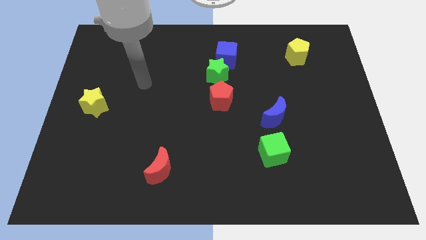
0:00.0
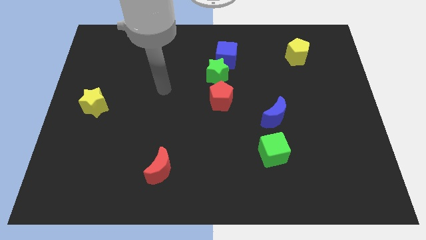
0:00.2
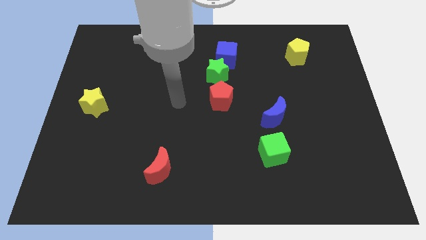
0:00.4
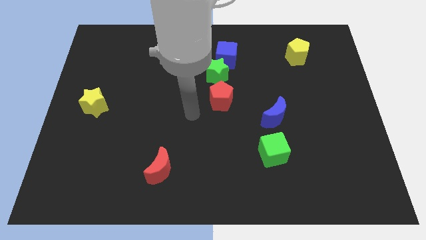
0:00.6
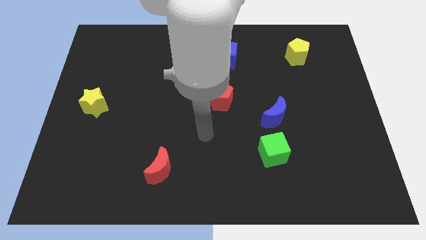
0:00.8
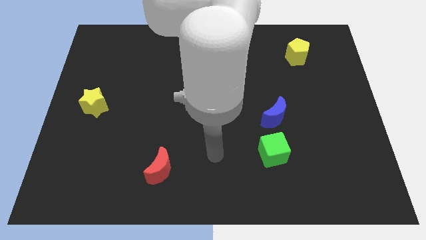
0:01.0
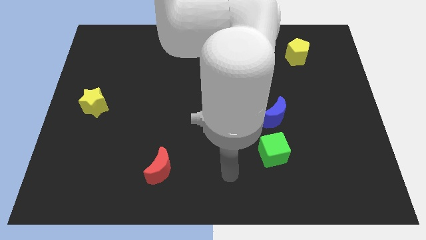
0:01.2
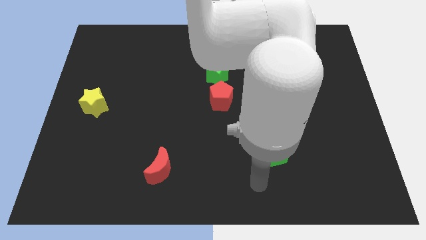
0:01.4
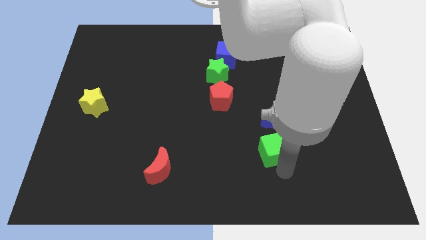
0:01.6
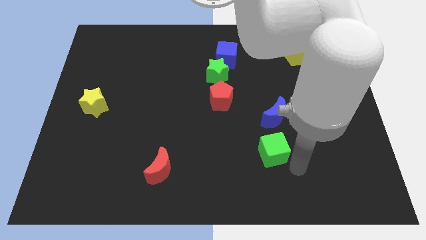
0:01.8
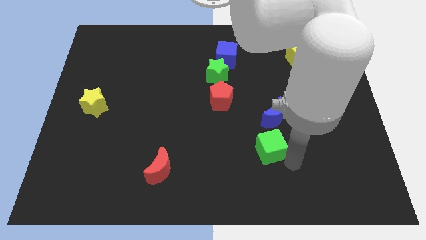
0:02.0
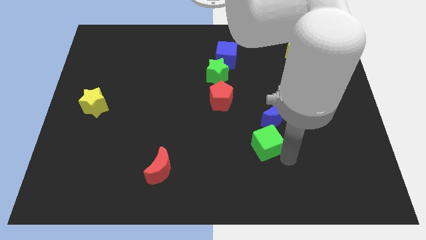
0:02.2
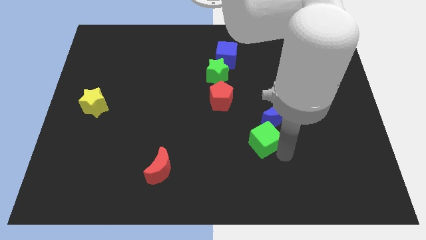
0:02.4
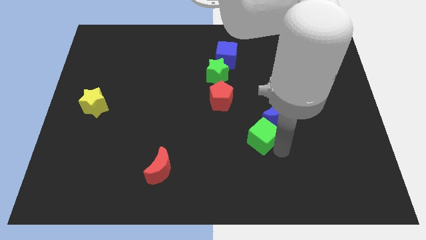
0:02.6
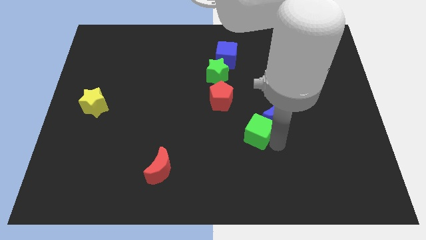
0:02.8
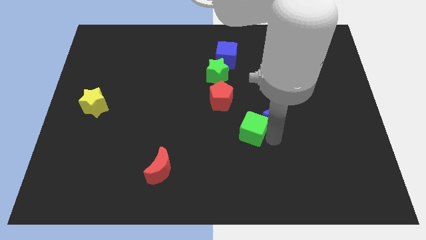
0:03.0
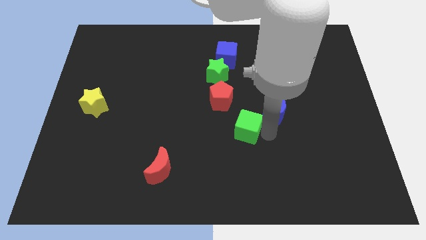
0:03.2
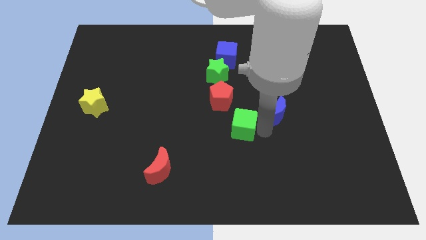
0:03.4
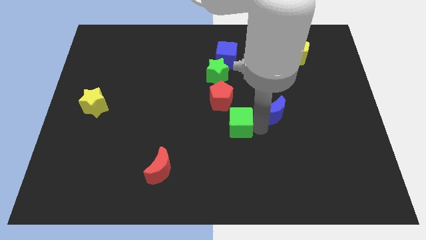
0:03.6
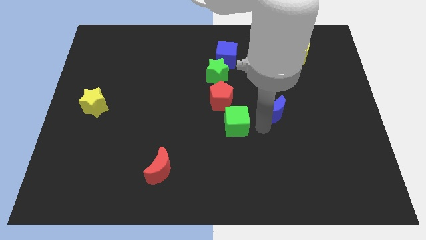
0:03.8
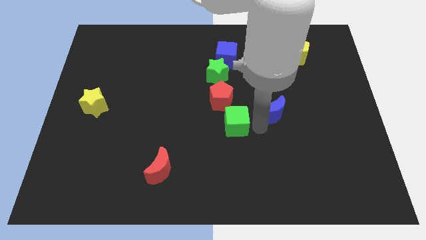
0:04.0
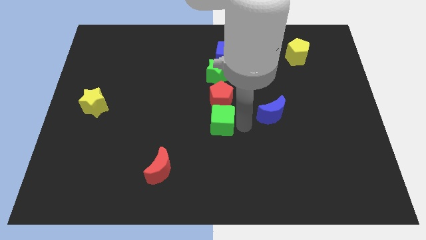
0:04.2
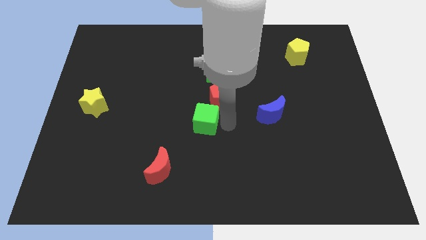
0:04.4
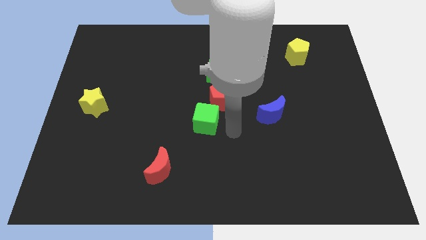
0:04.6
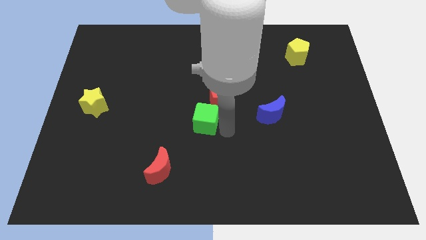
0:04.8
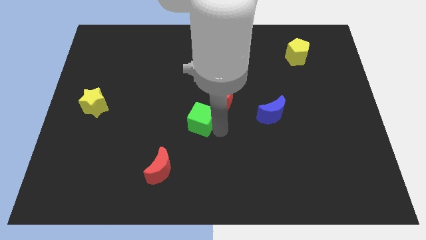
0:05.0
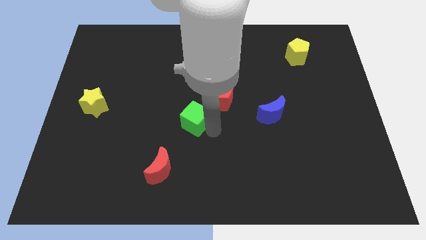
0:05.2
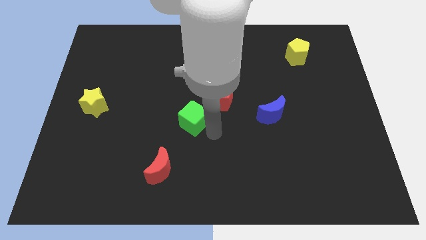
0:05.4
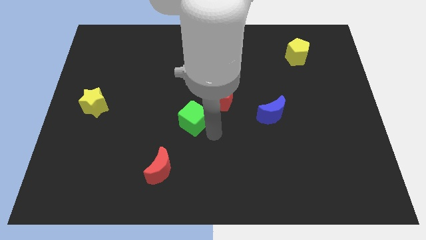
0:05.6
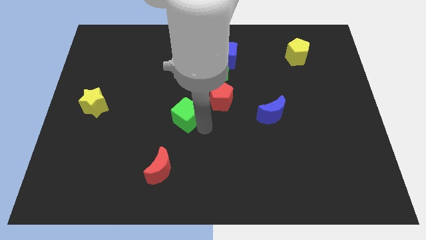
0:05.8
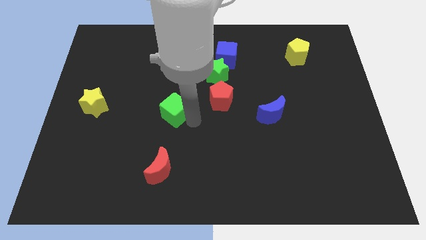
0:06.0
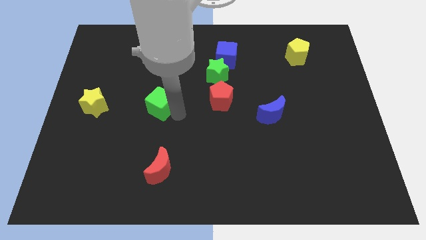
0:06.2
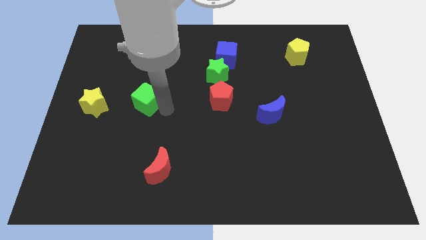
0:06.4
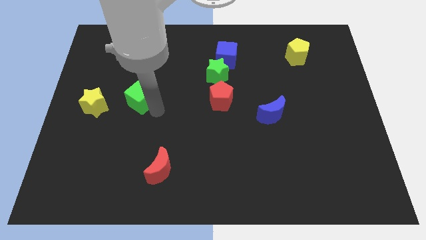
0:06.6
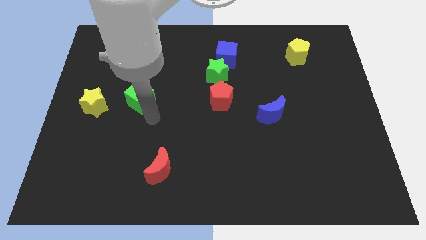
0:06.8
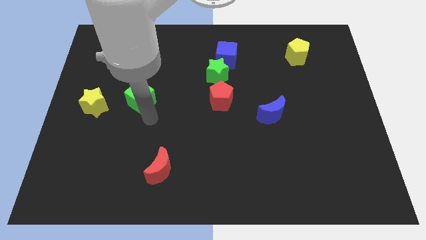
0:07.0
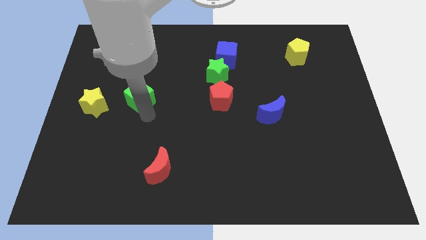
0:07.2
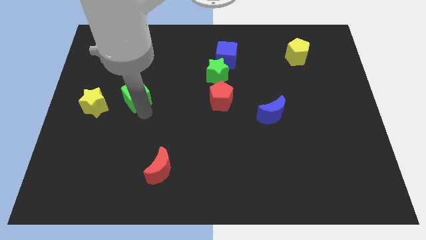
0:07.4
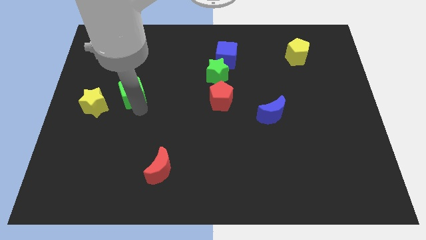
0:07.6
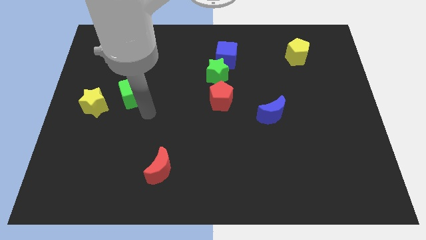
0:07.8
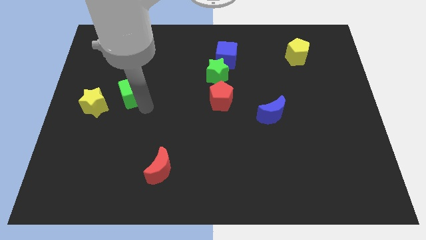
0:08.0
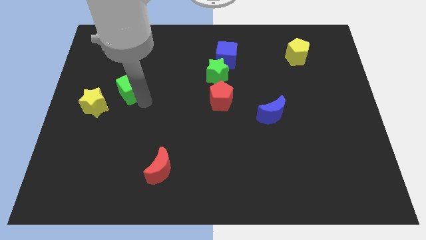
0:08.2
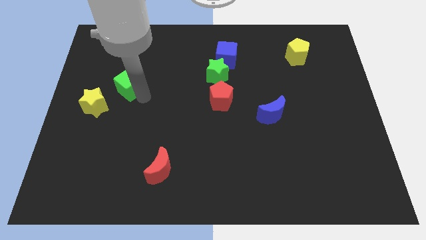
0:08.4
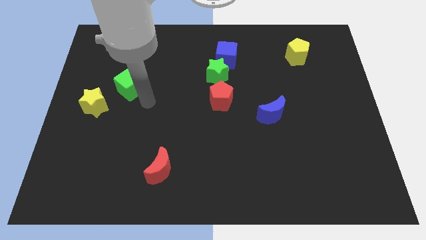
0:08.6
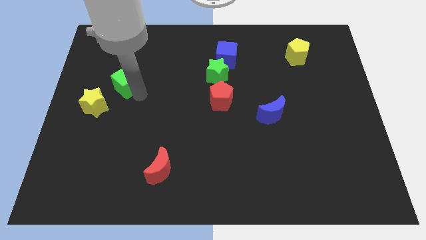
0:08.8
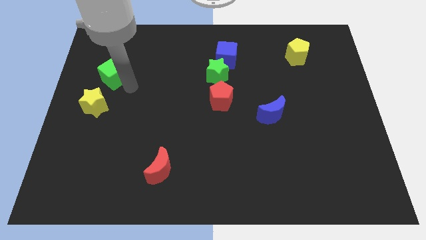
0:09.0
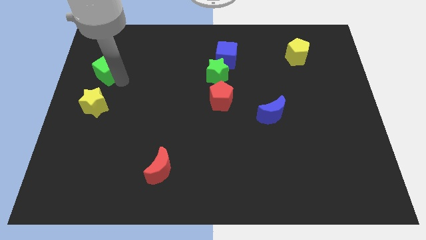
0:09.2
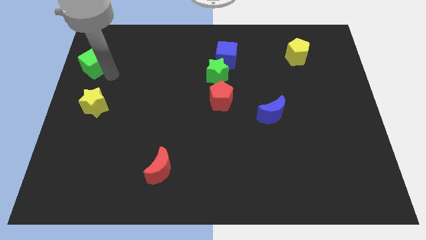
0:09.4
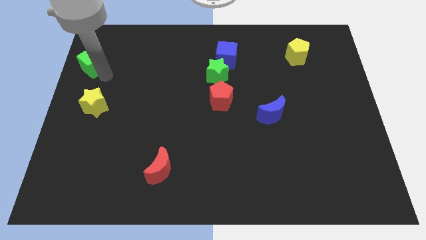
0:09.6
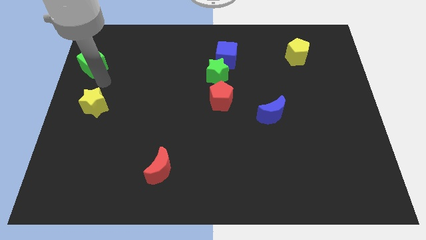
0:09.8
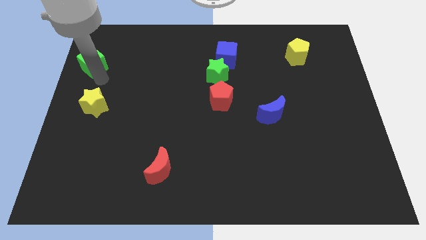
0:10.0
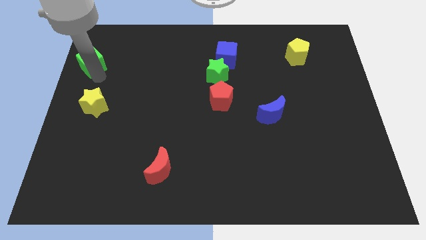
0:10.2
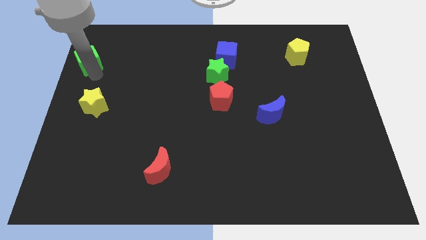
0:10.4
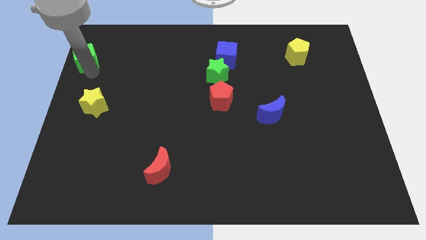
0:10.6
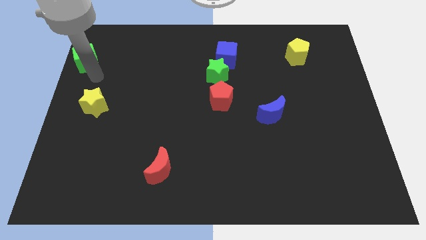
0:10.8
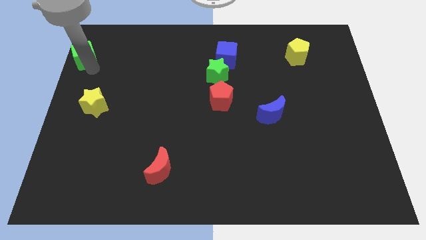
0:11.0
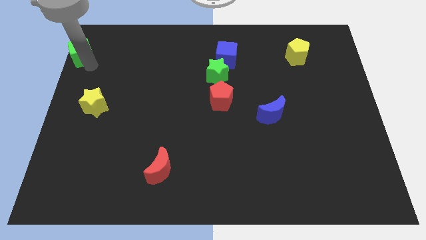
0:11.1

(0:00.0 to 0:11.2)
slide the green cube to the top left of the board
